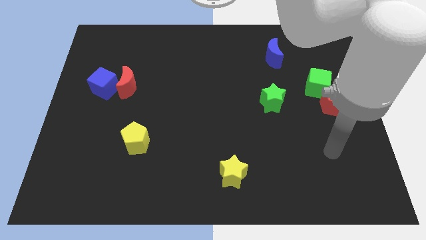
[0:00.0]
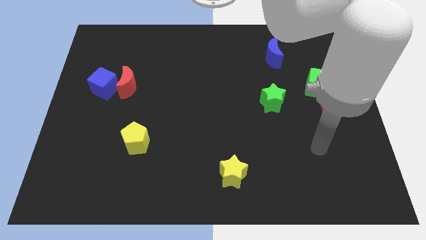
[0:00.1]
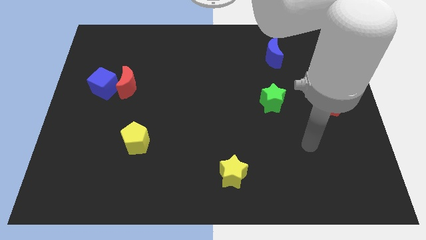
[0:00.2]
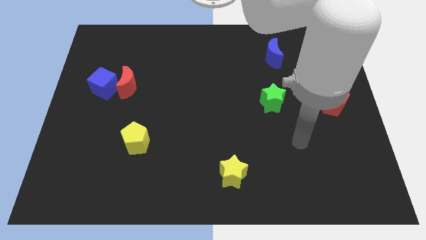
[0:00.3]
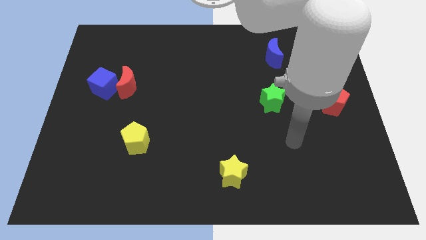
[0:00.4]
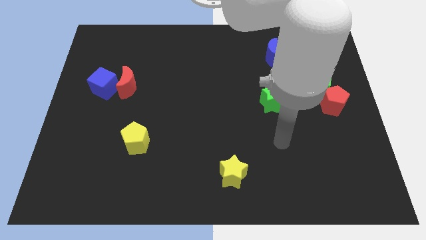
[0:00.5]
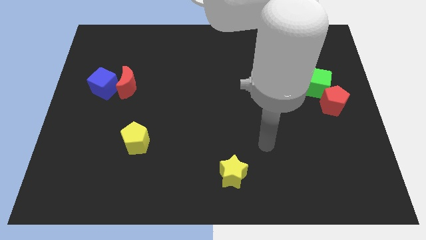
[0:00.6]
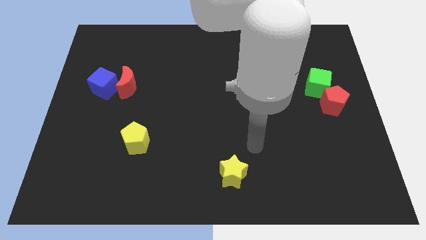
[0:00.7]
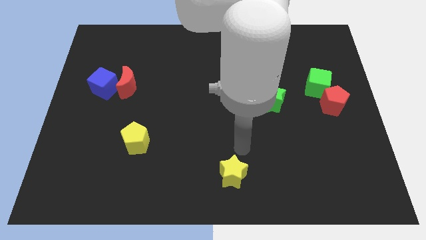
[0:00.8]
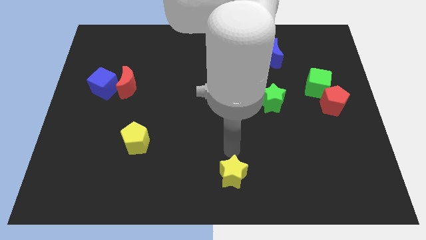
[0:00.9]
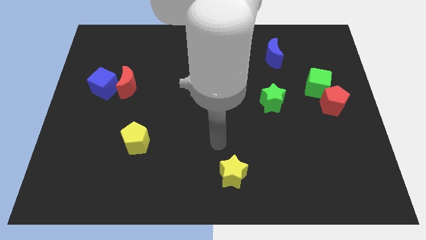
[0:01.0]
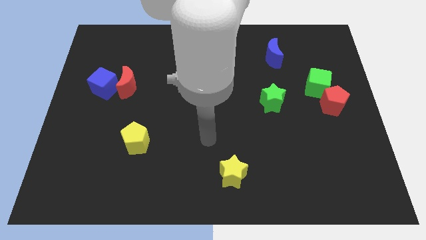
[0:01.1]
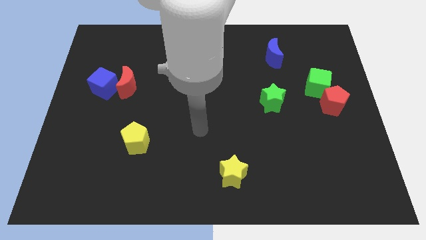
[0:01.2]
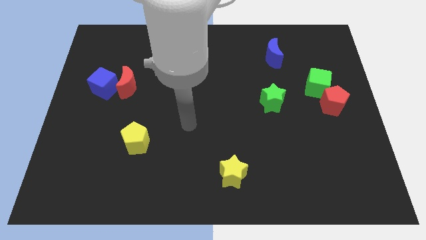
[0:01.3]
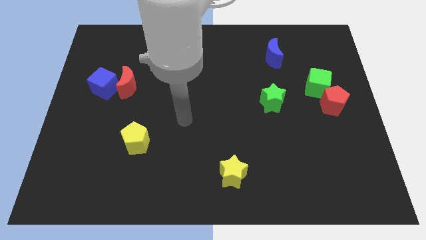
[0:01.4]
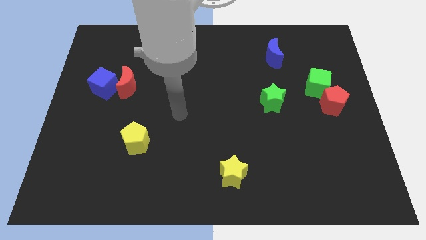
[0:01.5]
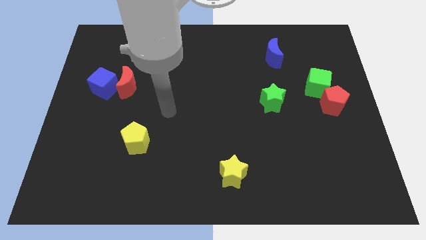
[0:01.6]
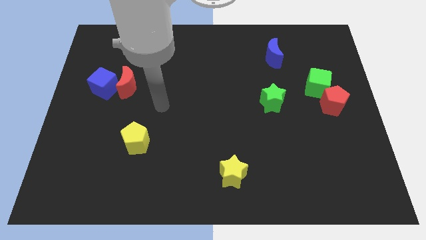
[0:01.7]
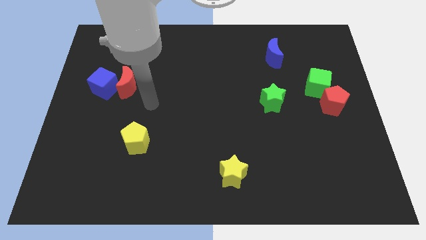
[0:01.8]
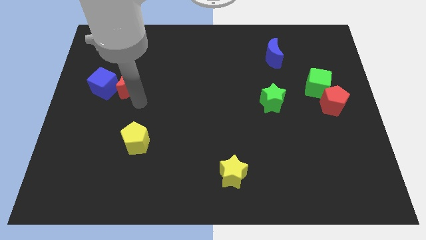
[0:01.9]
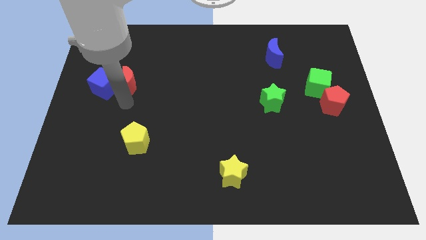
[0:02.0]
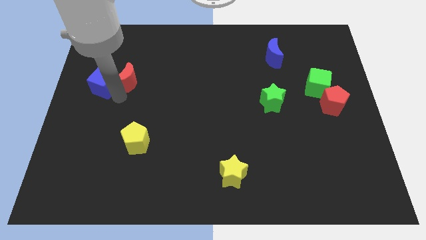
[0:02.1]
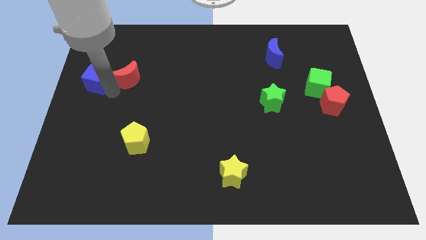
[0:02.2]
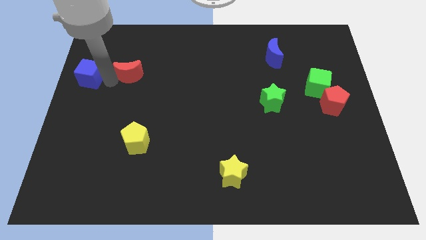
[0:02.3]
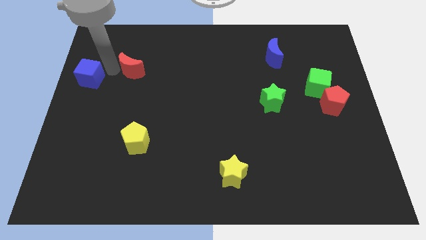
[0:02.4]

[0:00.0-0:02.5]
move the red moon away from the blue cube

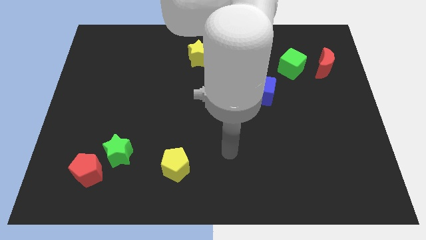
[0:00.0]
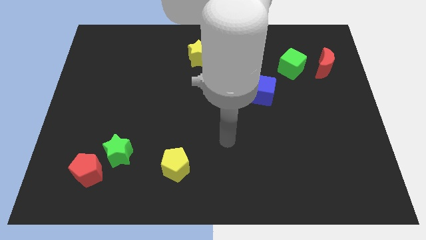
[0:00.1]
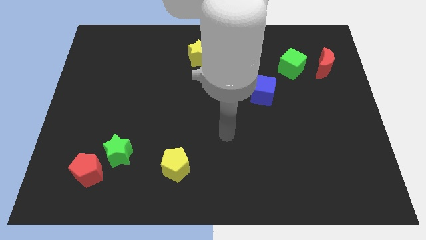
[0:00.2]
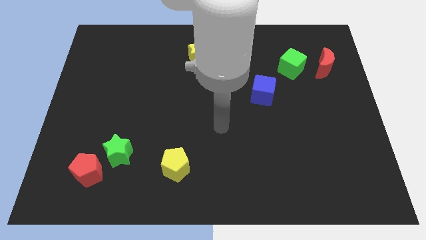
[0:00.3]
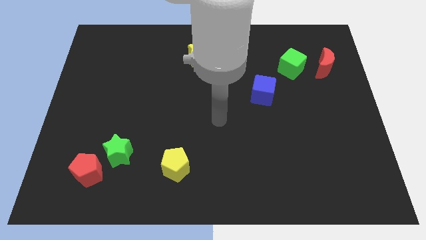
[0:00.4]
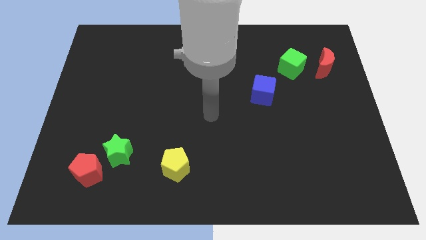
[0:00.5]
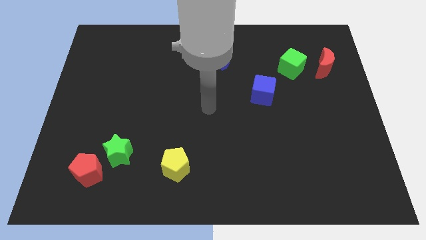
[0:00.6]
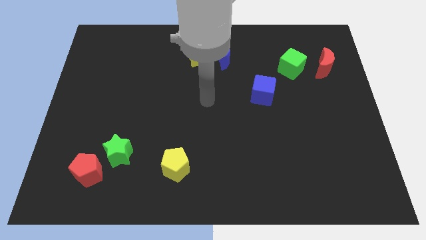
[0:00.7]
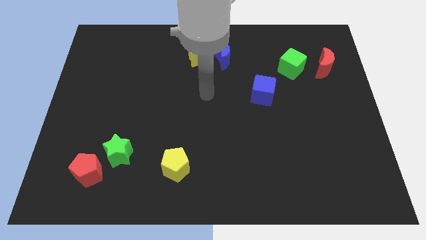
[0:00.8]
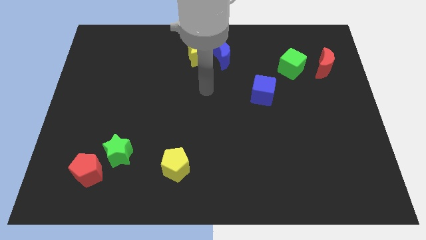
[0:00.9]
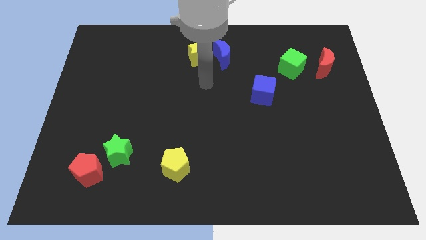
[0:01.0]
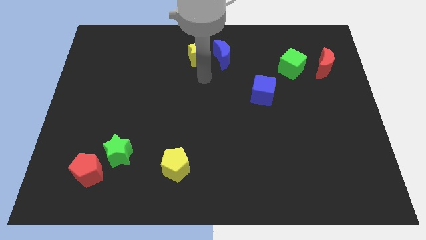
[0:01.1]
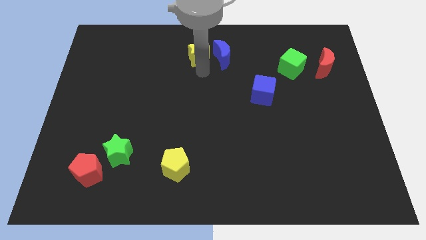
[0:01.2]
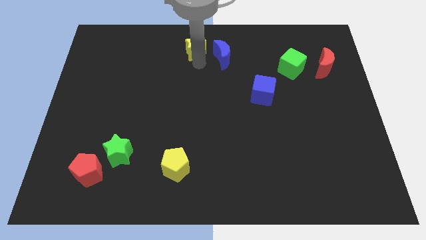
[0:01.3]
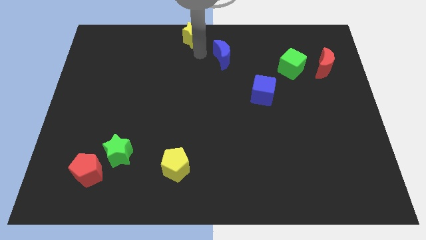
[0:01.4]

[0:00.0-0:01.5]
move the blue moon away from the yellow star

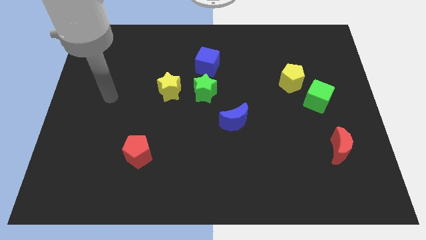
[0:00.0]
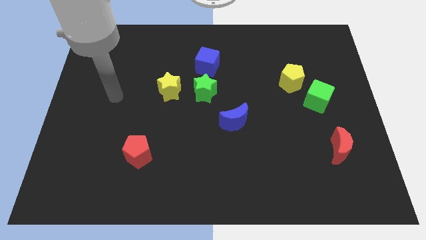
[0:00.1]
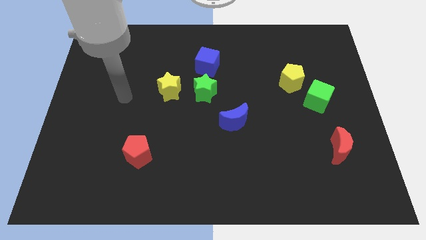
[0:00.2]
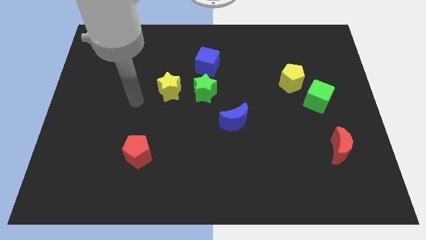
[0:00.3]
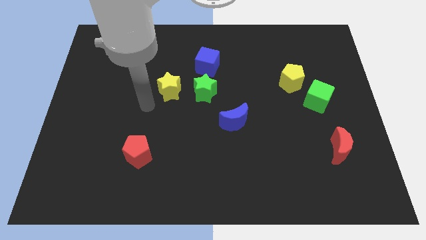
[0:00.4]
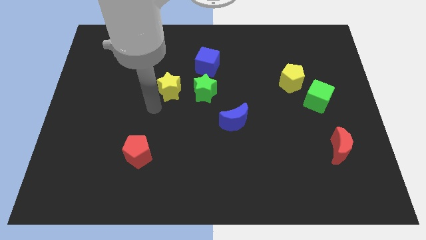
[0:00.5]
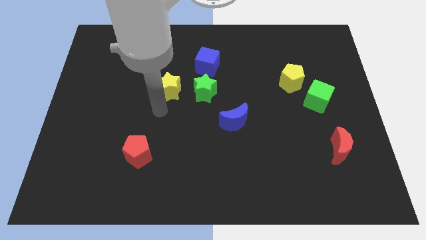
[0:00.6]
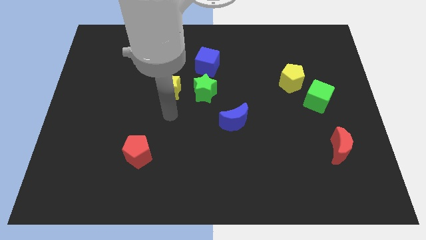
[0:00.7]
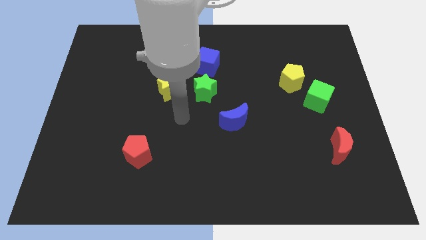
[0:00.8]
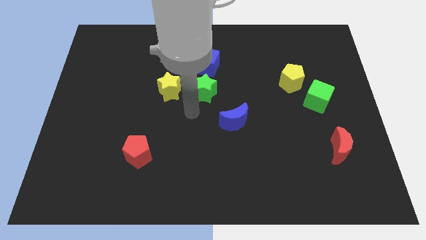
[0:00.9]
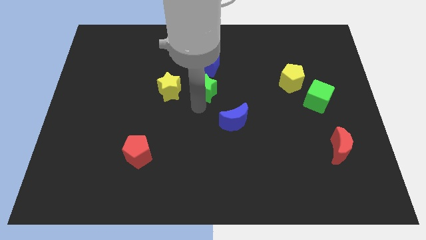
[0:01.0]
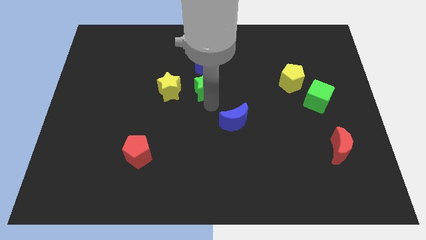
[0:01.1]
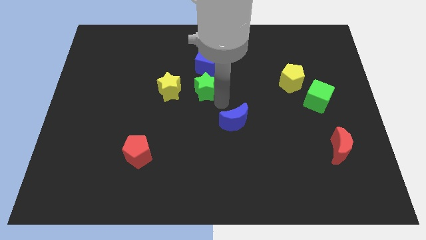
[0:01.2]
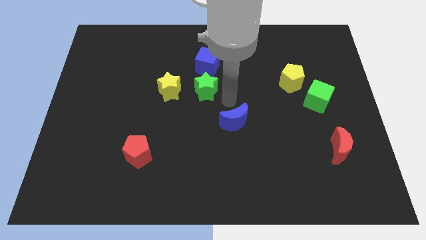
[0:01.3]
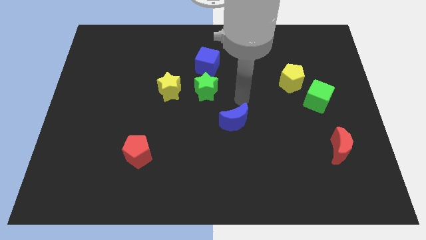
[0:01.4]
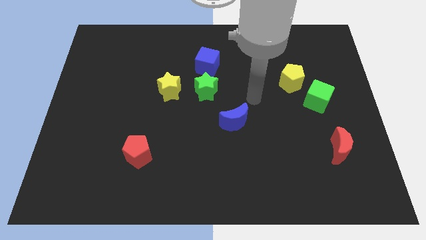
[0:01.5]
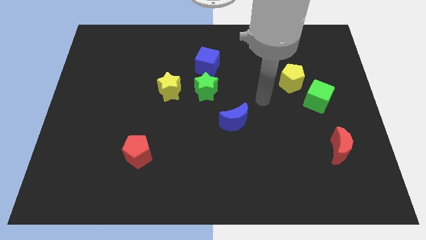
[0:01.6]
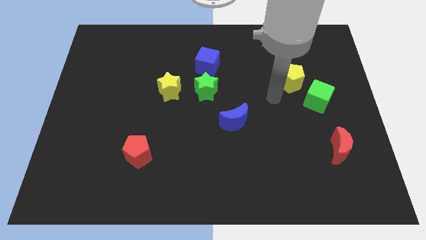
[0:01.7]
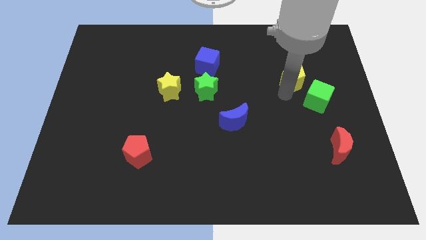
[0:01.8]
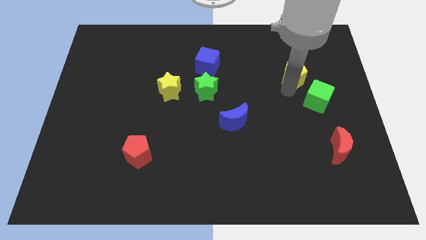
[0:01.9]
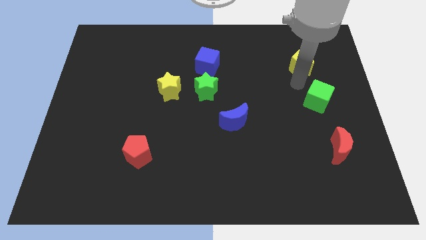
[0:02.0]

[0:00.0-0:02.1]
move the green cube away from the yellow pentagon

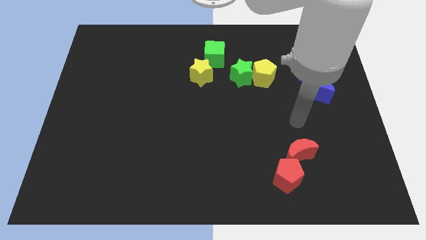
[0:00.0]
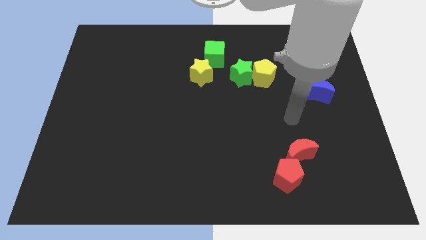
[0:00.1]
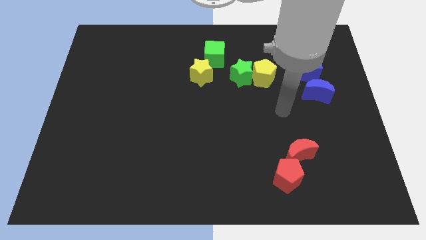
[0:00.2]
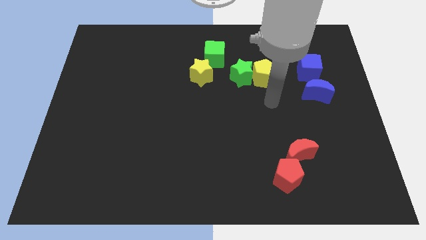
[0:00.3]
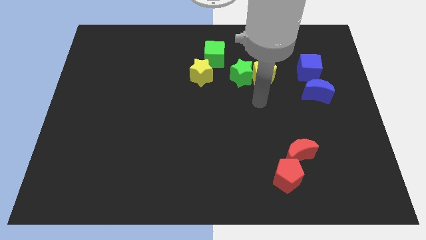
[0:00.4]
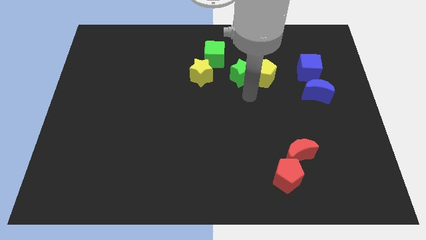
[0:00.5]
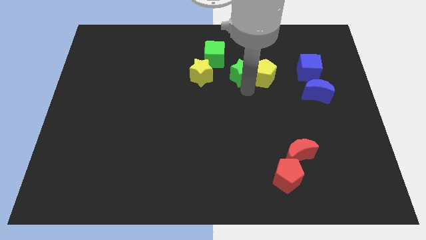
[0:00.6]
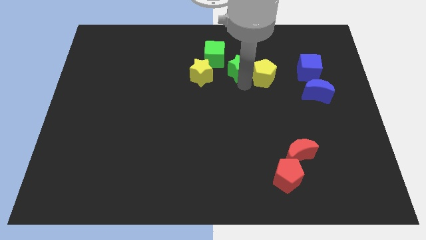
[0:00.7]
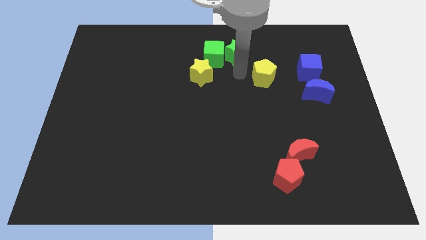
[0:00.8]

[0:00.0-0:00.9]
pull the yellow pentagon apart from the green star

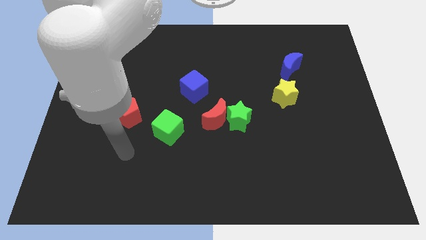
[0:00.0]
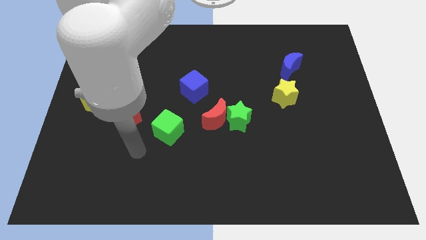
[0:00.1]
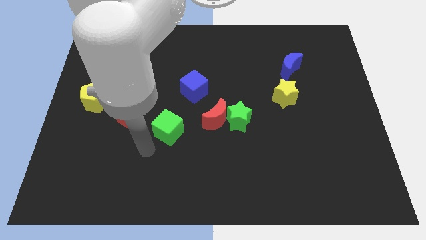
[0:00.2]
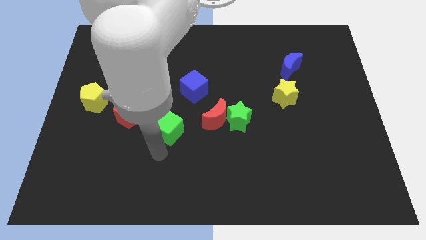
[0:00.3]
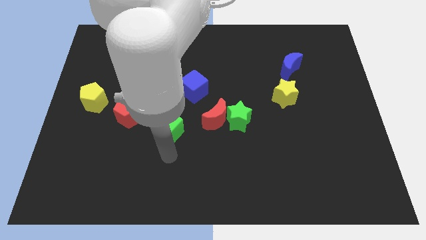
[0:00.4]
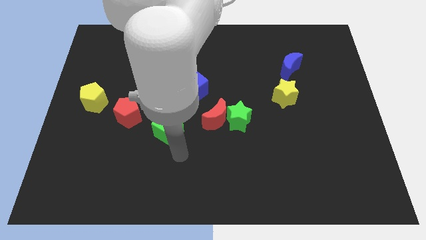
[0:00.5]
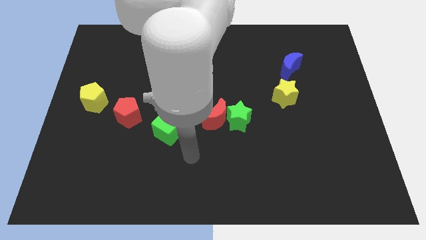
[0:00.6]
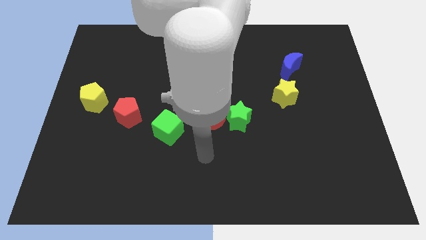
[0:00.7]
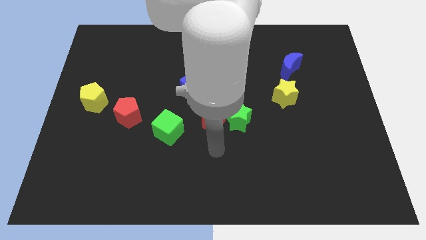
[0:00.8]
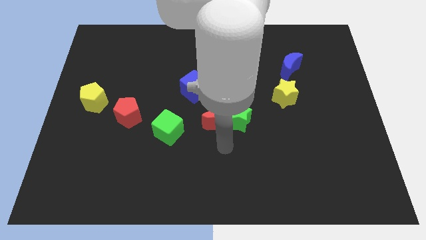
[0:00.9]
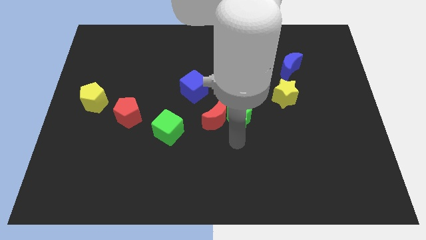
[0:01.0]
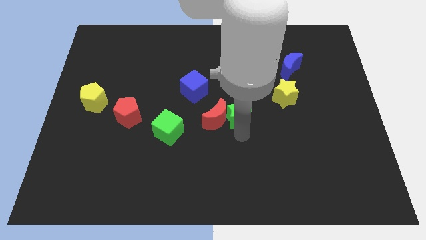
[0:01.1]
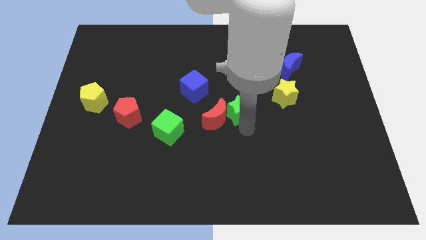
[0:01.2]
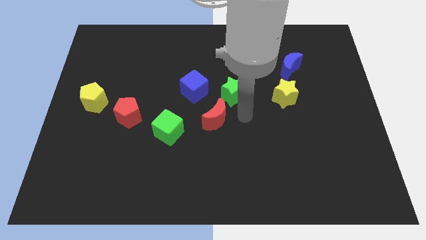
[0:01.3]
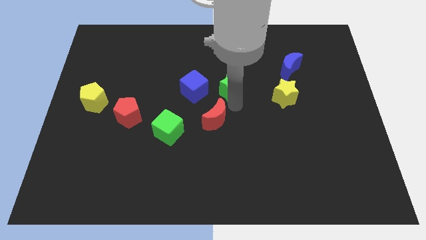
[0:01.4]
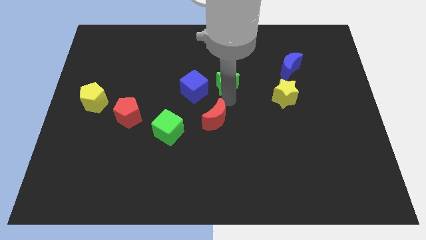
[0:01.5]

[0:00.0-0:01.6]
pull the red moon apart from the green star

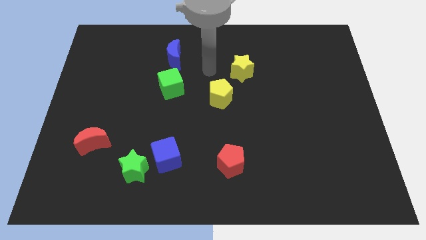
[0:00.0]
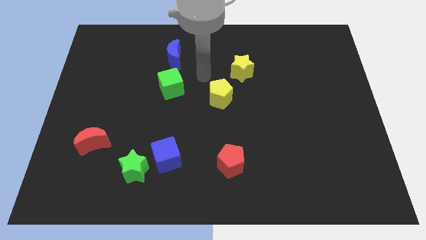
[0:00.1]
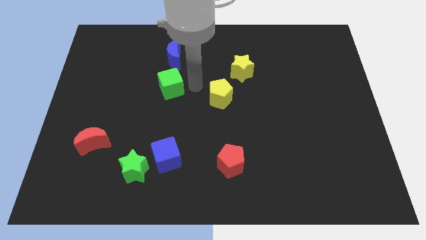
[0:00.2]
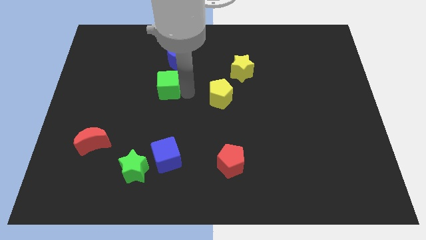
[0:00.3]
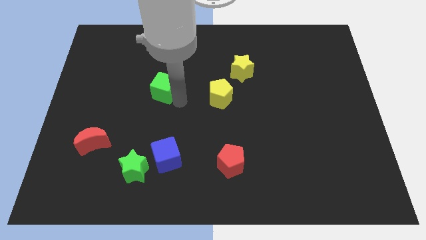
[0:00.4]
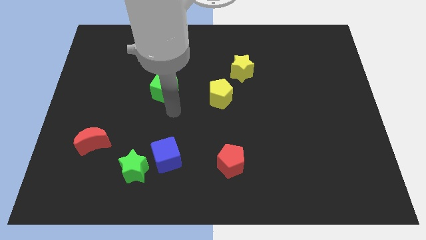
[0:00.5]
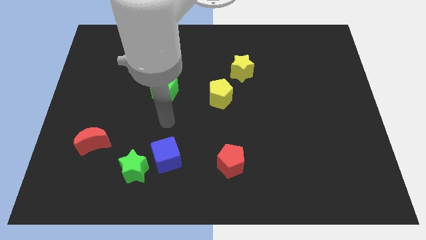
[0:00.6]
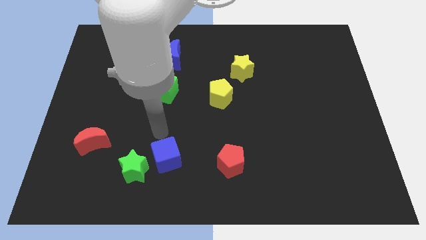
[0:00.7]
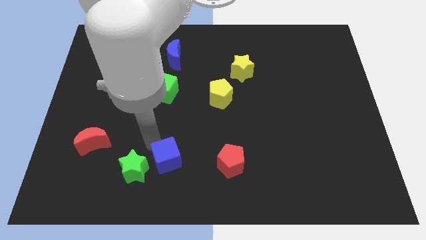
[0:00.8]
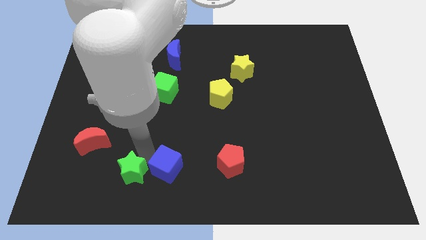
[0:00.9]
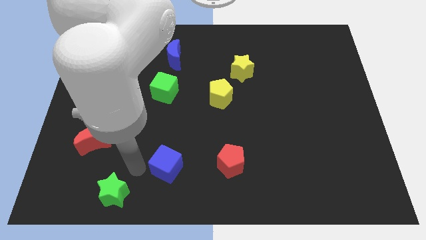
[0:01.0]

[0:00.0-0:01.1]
separate the blue cube from the green star
